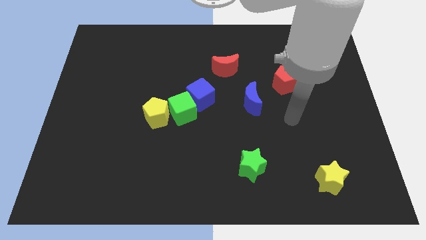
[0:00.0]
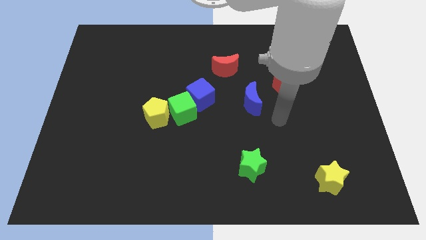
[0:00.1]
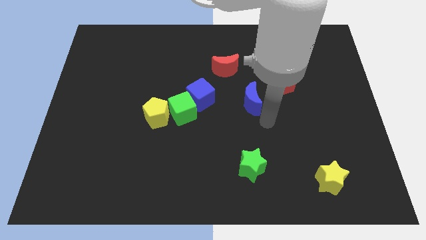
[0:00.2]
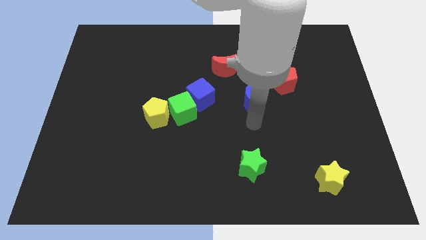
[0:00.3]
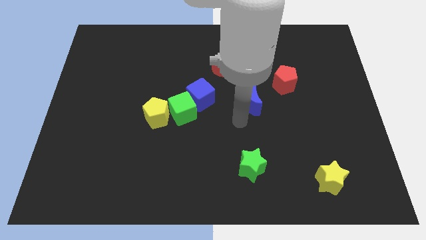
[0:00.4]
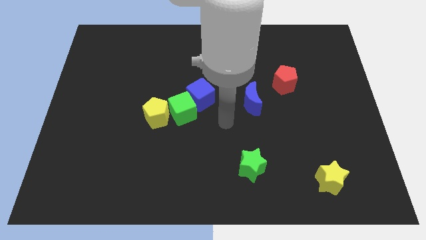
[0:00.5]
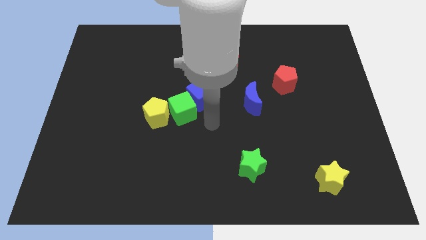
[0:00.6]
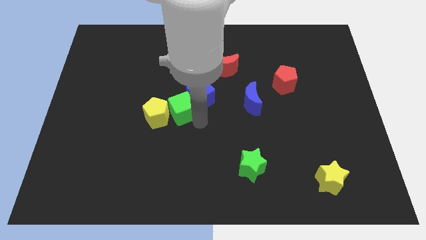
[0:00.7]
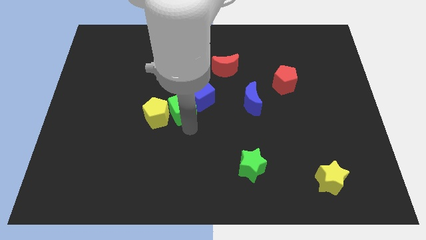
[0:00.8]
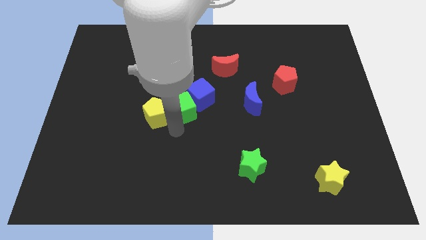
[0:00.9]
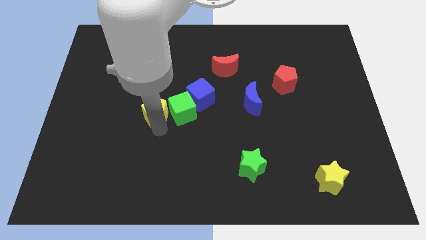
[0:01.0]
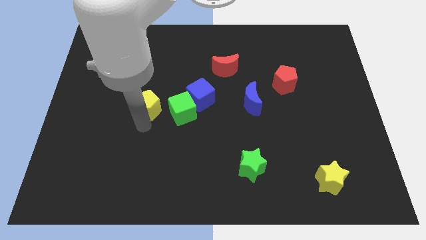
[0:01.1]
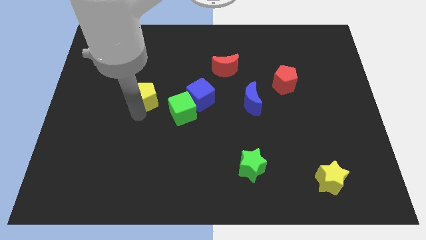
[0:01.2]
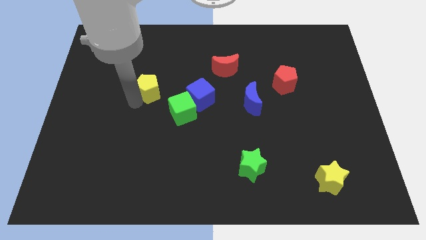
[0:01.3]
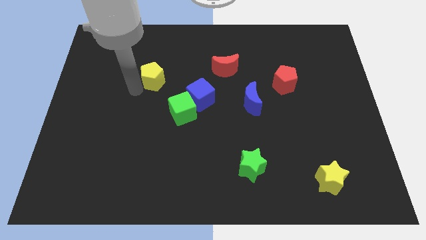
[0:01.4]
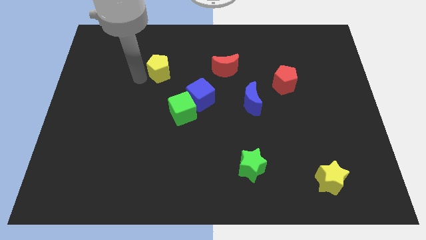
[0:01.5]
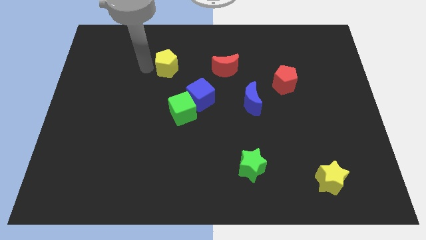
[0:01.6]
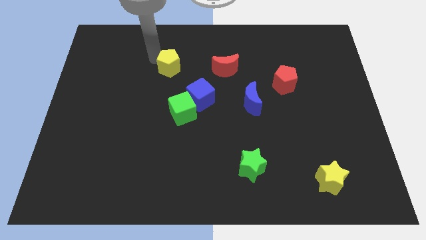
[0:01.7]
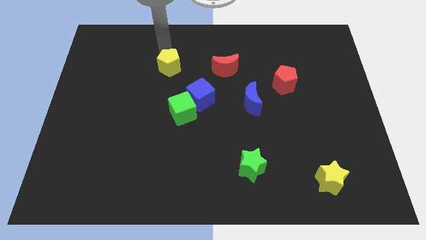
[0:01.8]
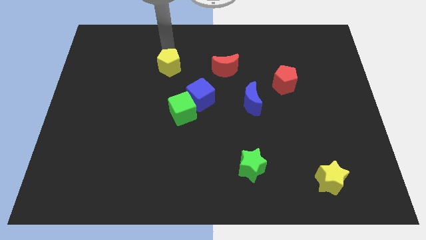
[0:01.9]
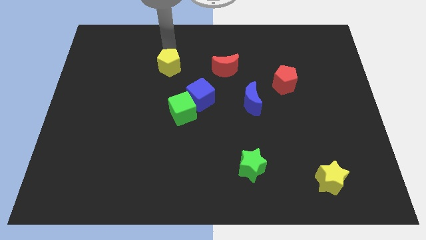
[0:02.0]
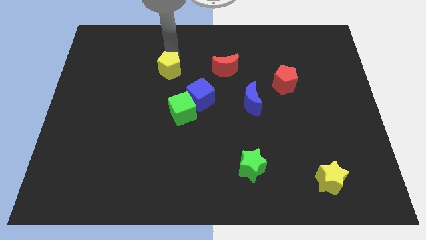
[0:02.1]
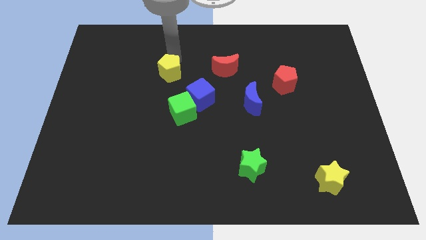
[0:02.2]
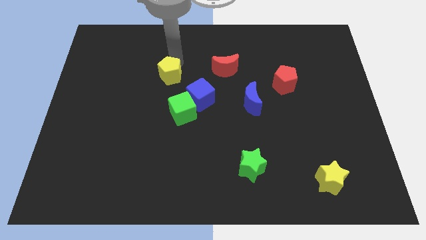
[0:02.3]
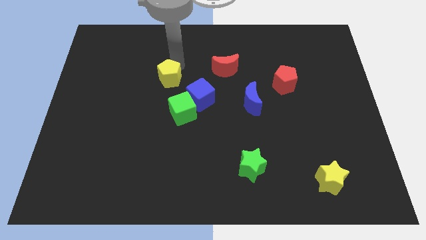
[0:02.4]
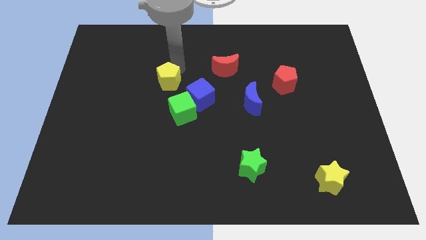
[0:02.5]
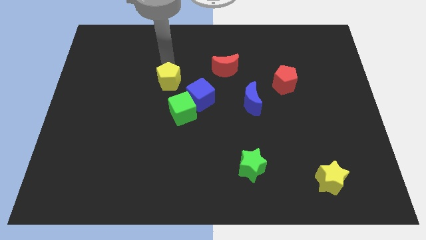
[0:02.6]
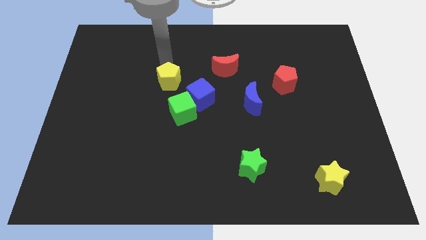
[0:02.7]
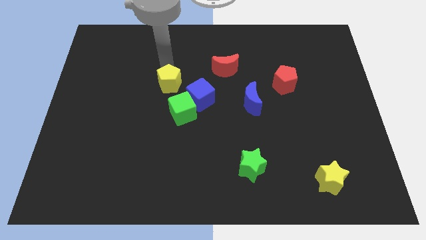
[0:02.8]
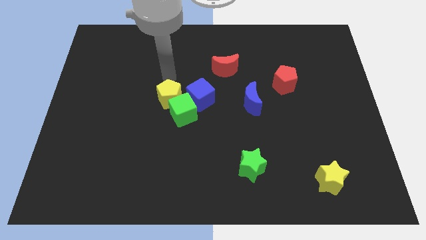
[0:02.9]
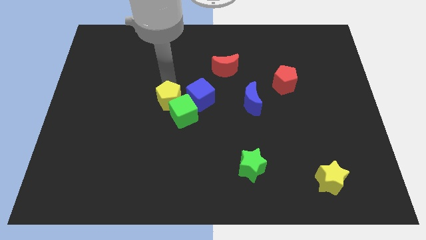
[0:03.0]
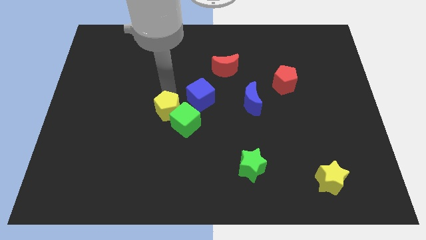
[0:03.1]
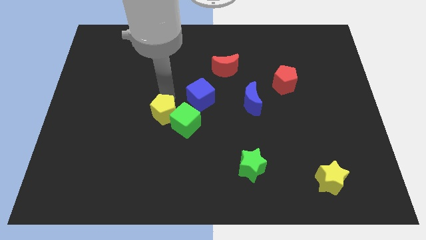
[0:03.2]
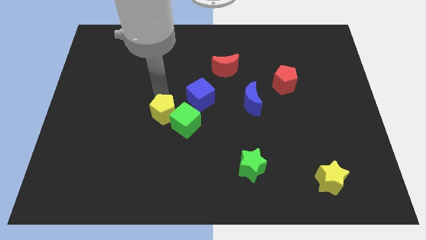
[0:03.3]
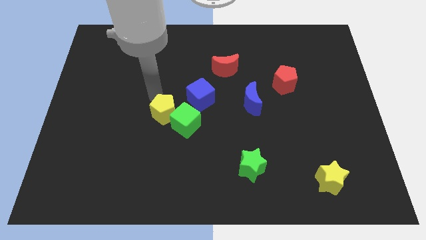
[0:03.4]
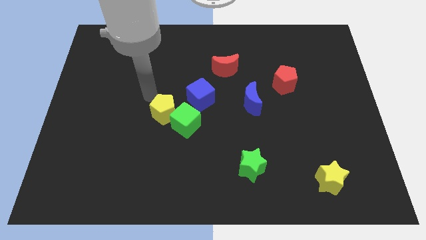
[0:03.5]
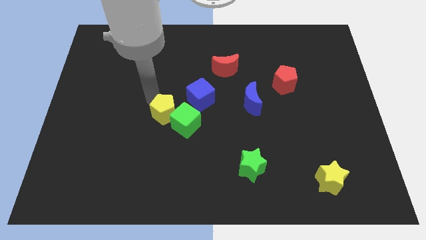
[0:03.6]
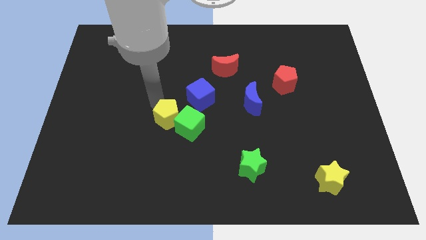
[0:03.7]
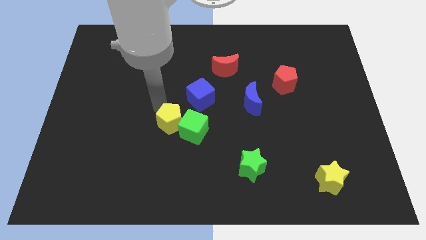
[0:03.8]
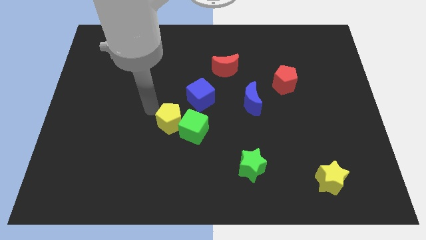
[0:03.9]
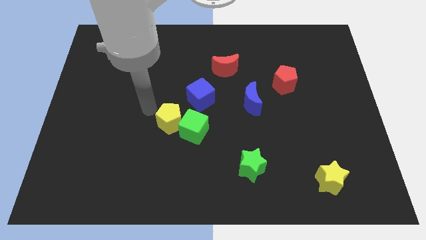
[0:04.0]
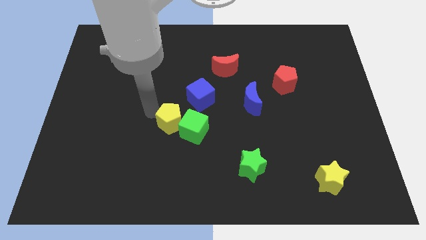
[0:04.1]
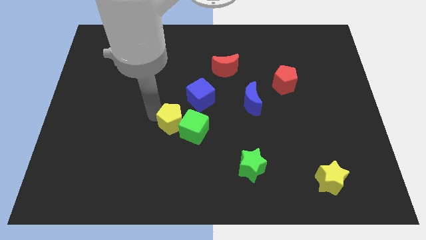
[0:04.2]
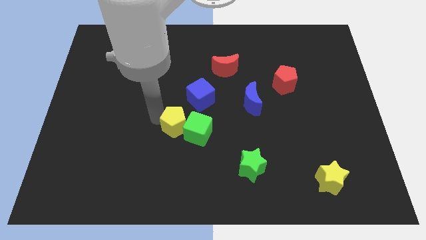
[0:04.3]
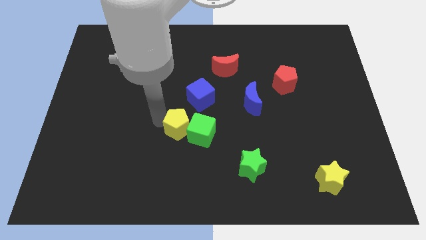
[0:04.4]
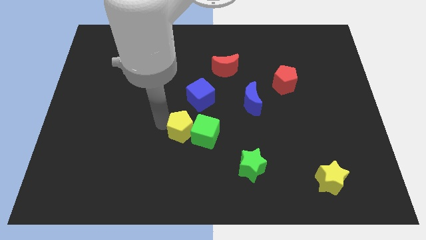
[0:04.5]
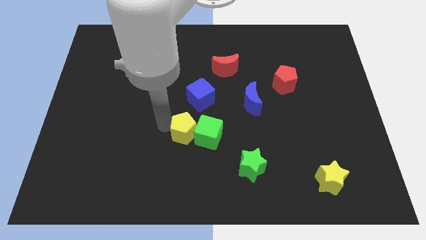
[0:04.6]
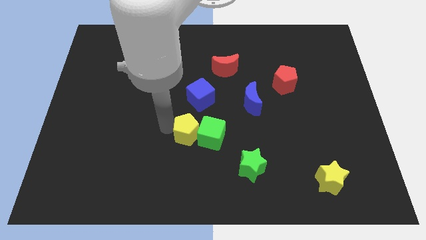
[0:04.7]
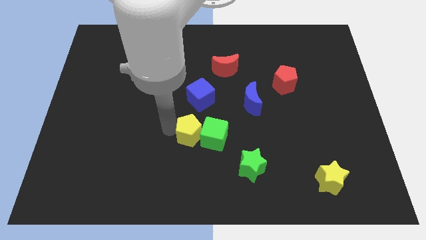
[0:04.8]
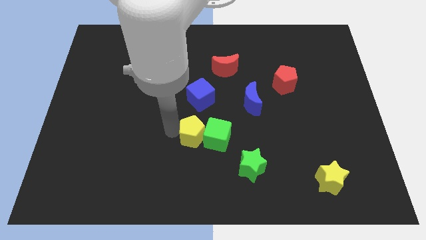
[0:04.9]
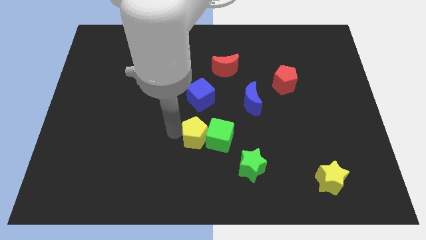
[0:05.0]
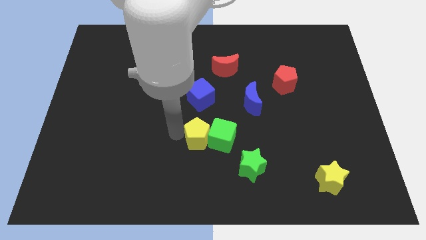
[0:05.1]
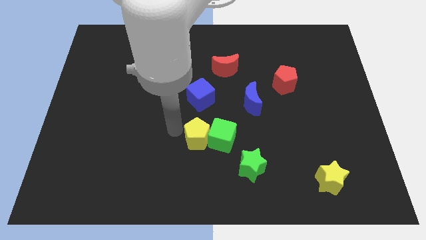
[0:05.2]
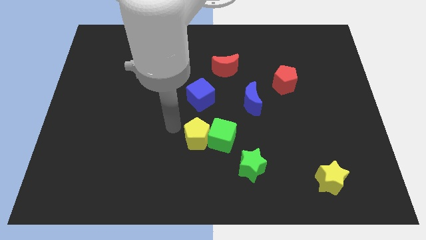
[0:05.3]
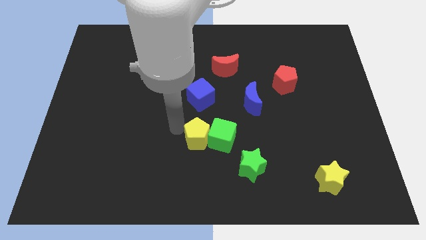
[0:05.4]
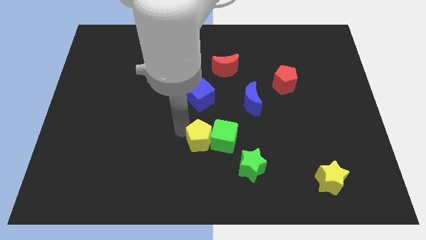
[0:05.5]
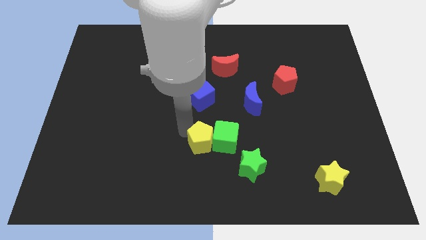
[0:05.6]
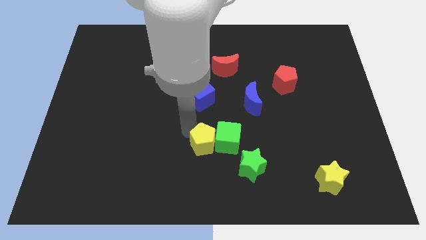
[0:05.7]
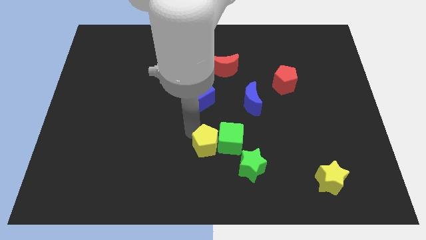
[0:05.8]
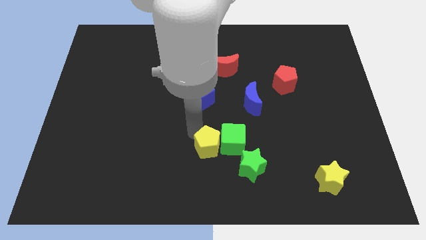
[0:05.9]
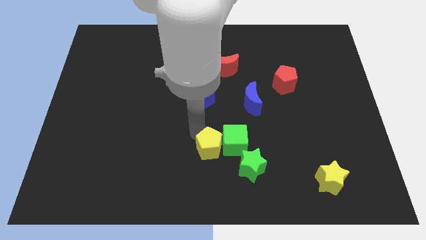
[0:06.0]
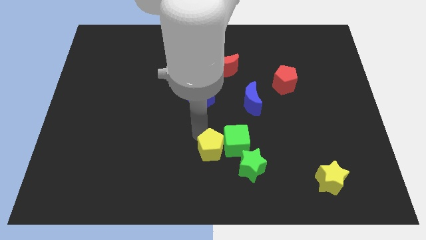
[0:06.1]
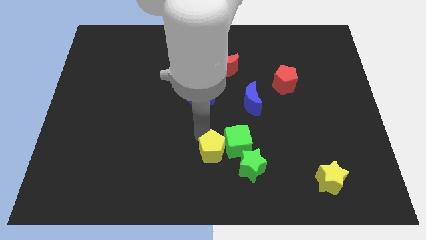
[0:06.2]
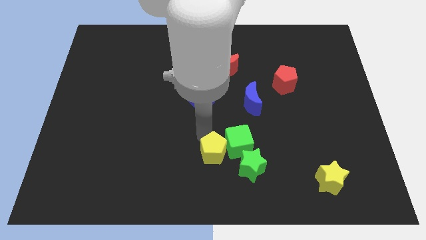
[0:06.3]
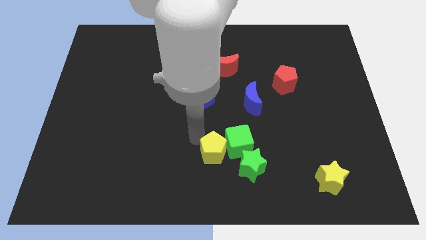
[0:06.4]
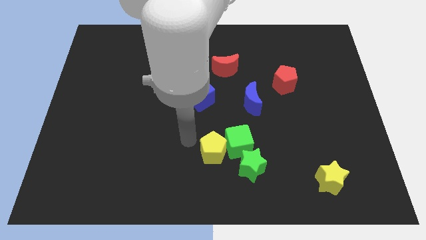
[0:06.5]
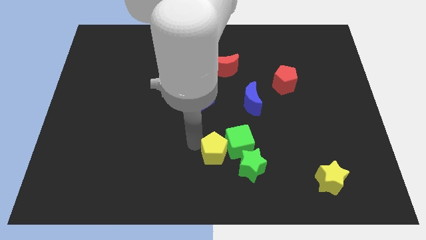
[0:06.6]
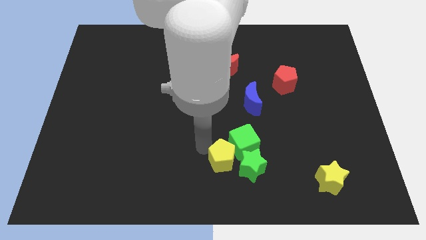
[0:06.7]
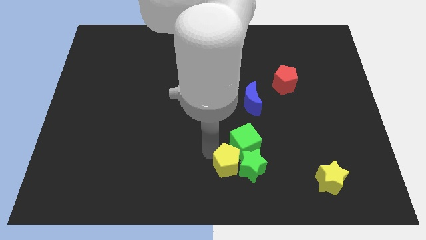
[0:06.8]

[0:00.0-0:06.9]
push the yellow pentagon towards the green star
